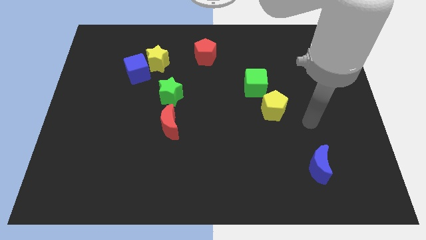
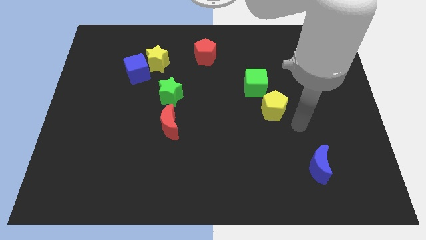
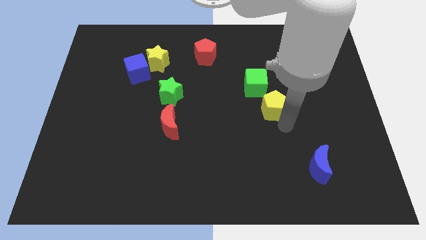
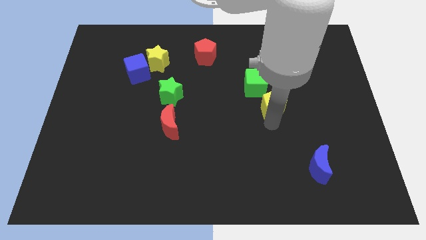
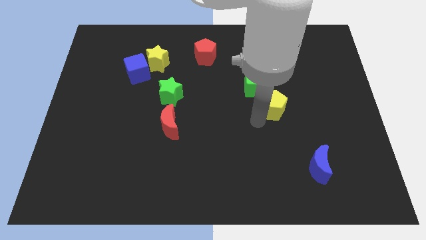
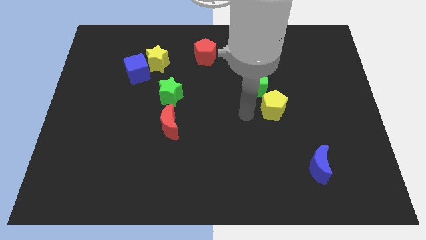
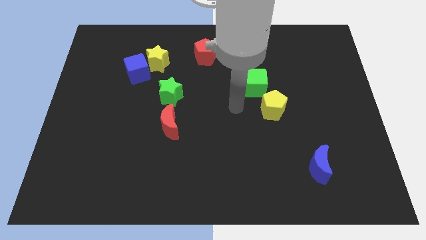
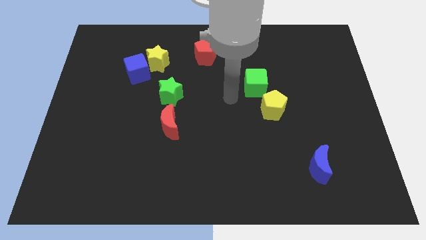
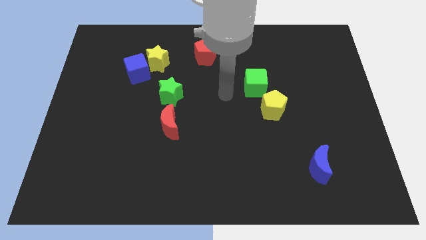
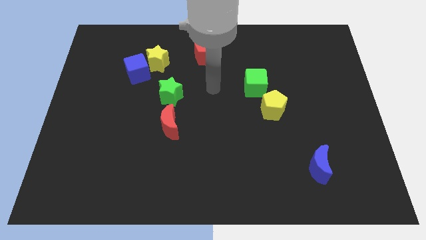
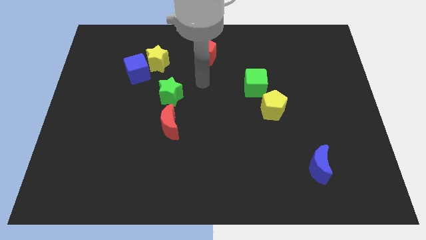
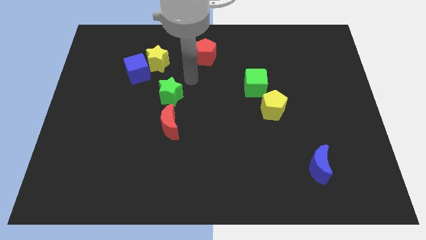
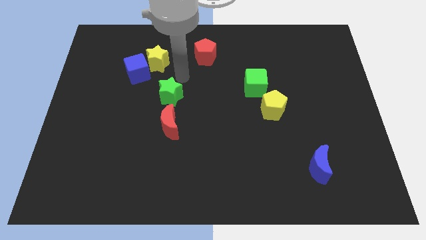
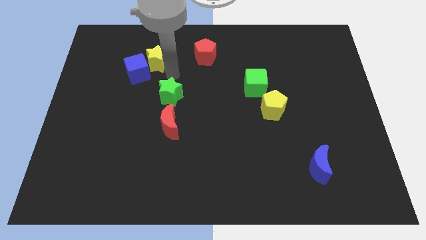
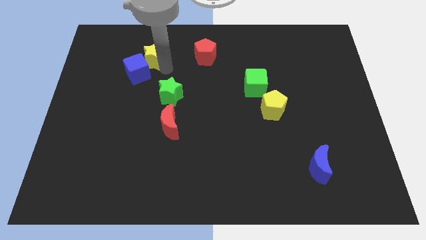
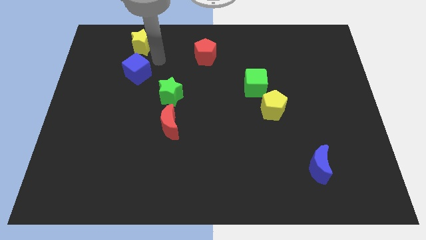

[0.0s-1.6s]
move the blue cube away from the yellow star

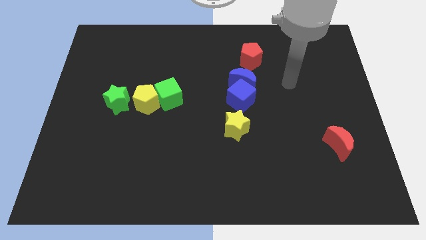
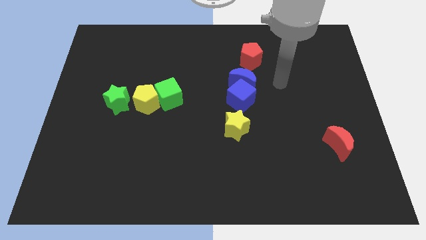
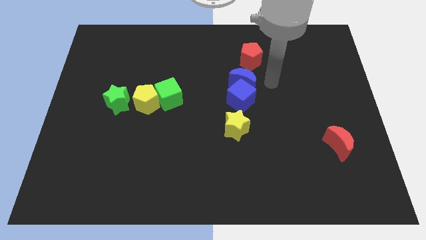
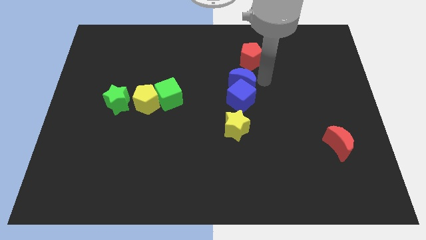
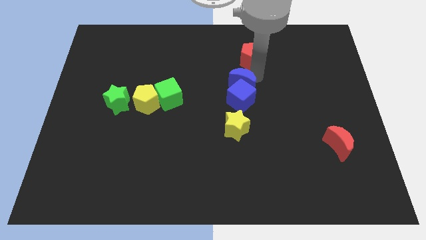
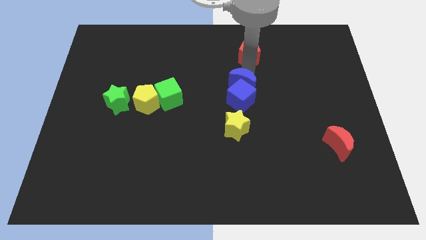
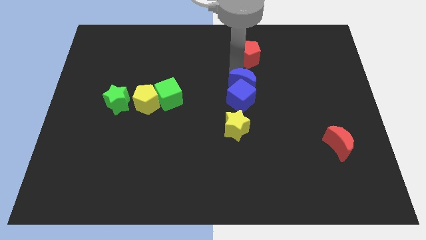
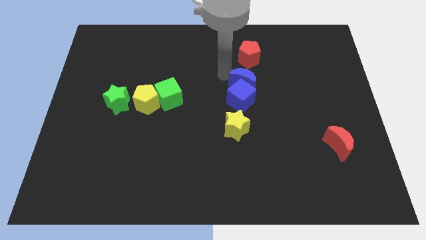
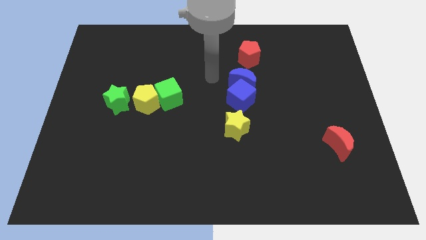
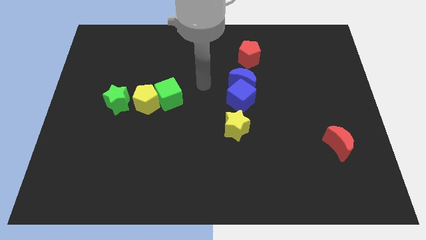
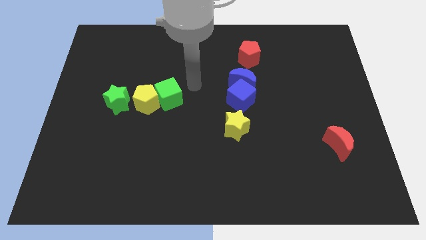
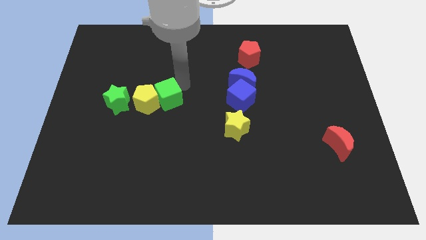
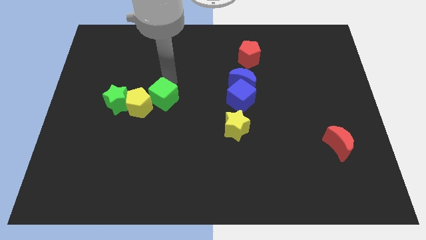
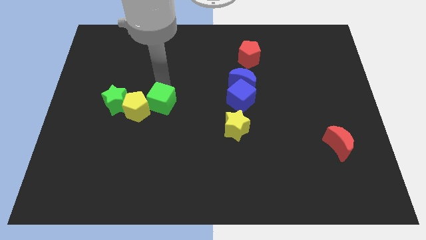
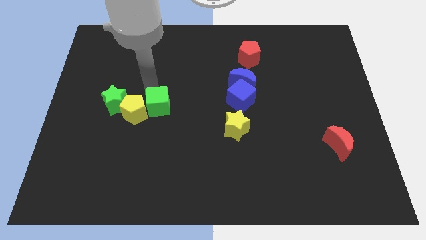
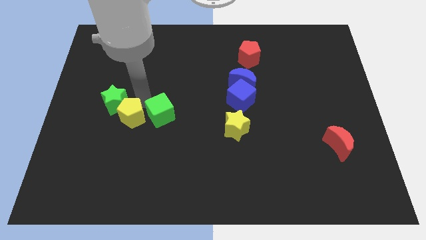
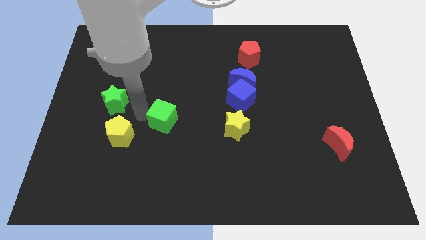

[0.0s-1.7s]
pull the green cube apart from the yellow pentagon

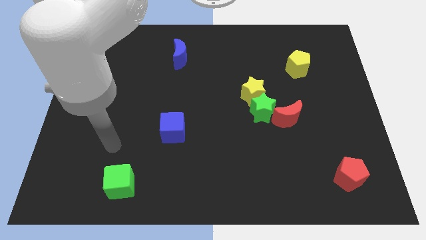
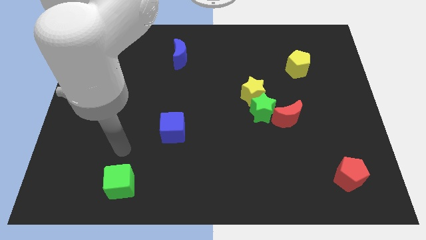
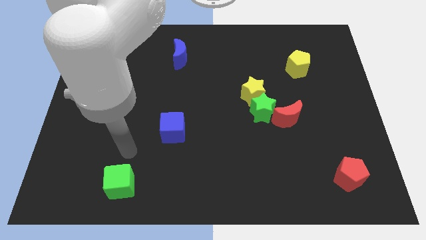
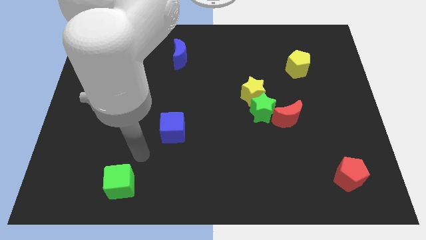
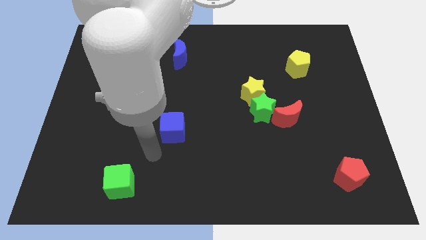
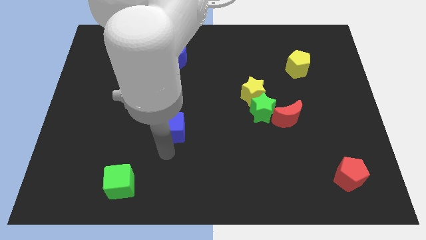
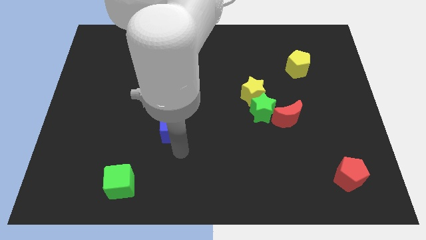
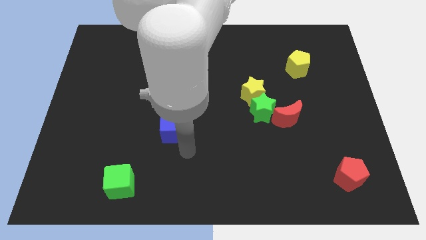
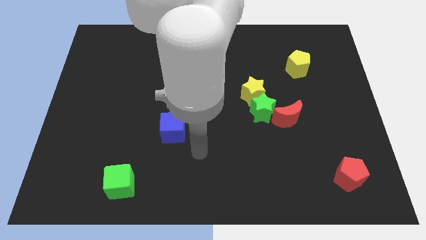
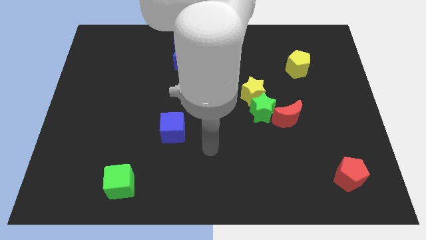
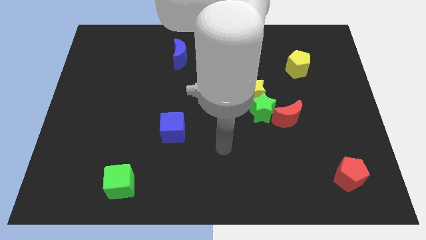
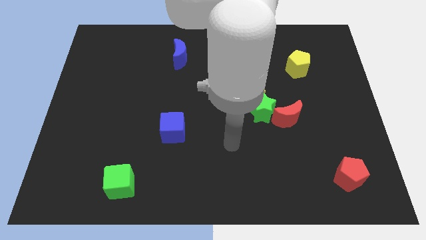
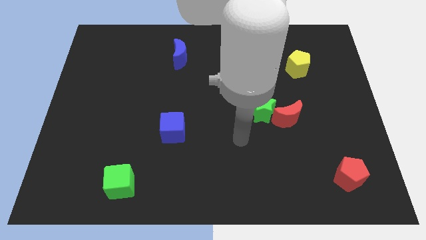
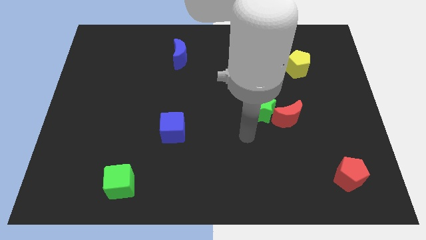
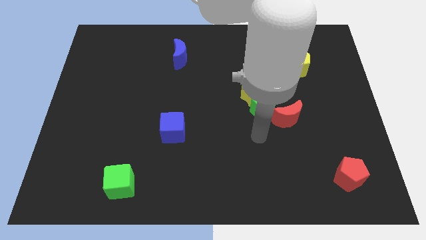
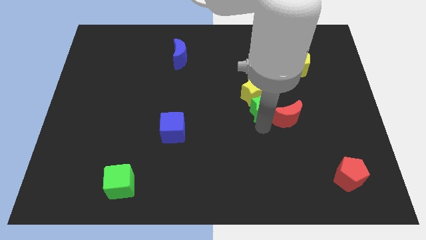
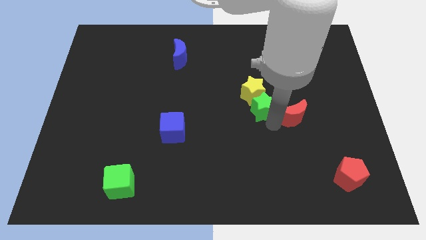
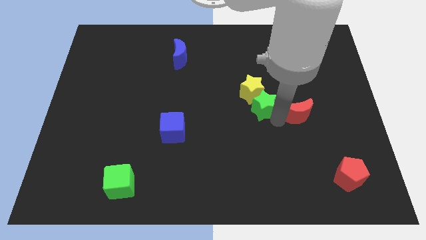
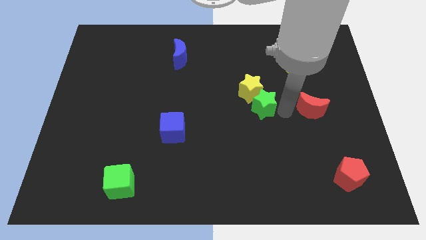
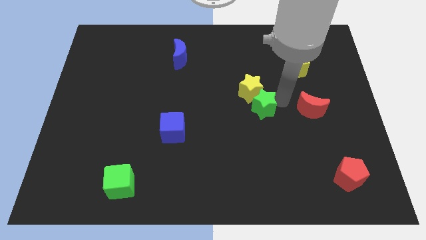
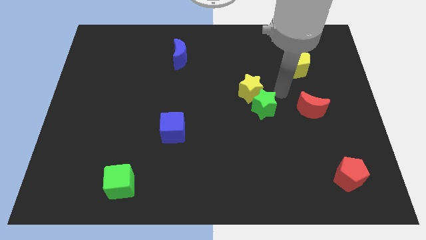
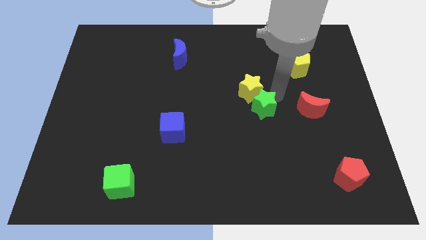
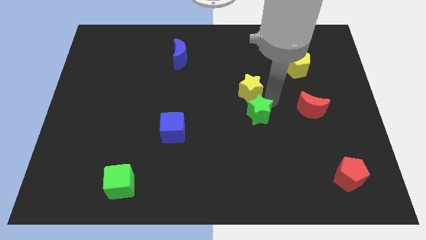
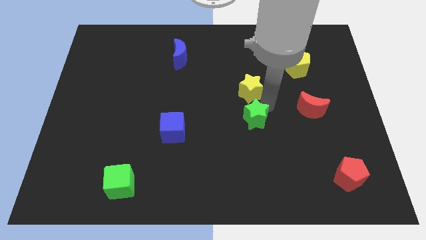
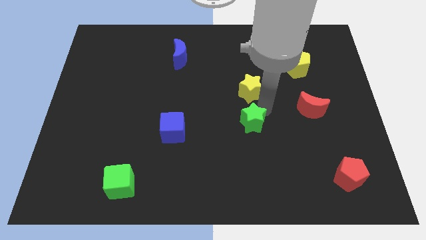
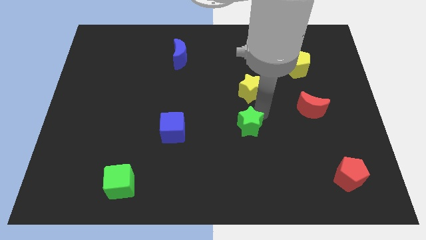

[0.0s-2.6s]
pull the green star apart from the yellow star and red moon

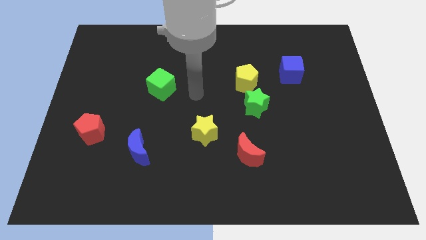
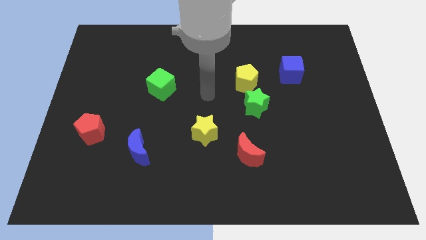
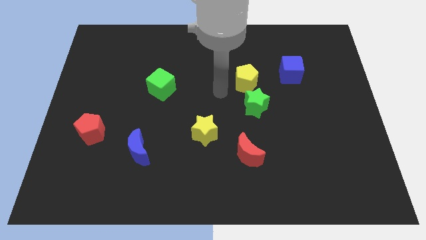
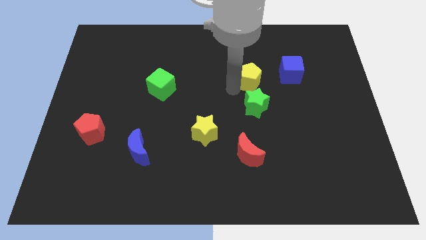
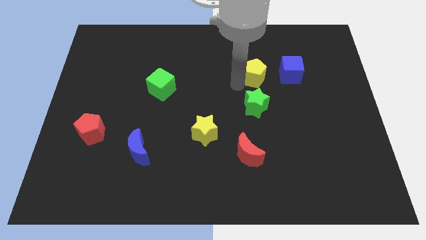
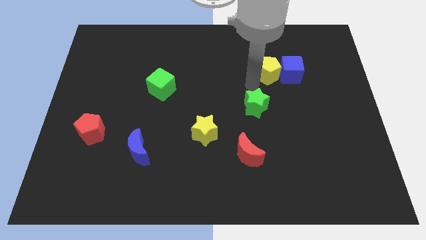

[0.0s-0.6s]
pull the green star apart from the yellow pentagon

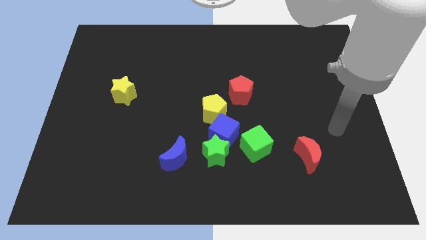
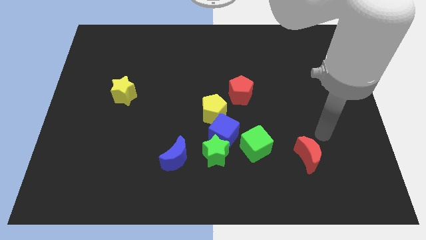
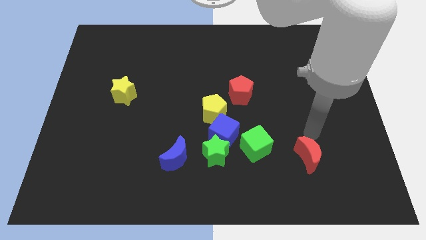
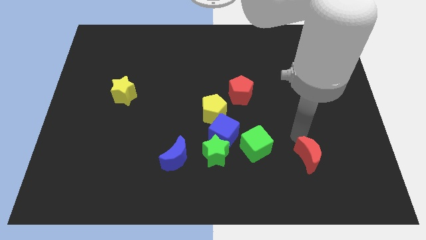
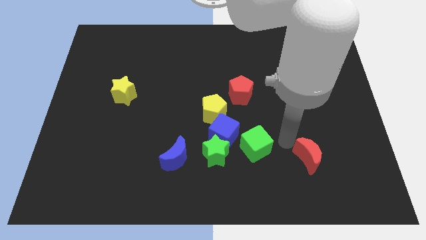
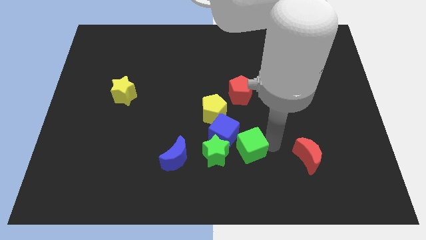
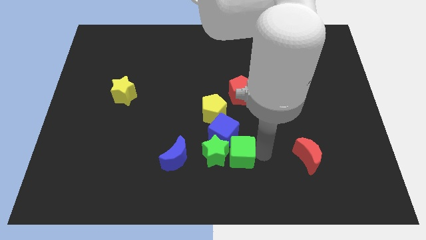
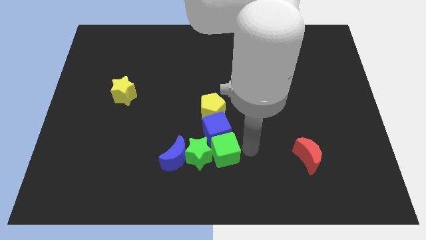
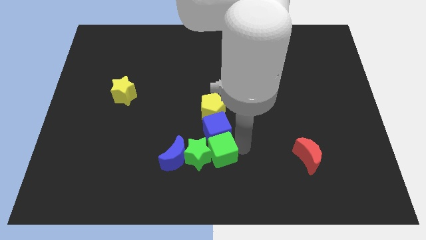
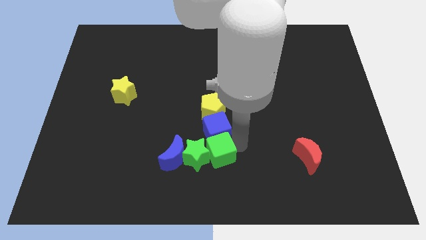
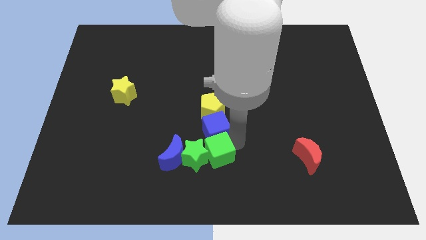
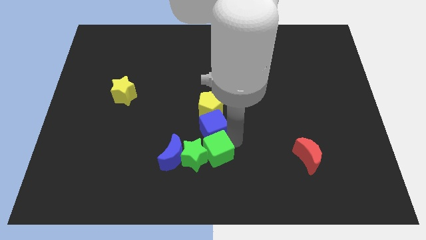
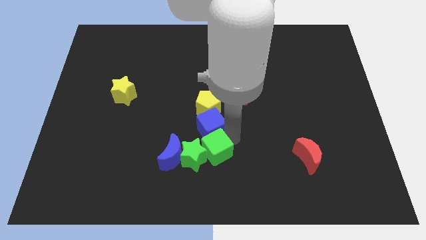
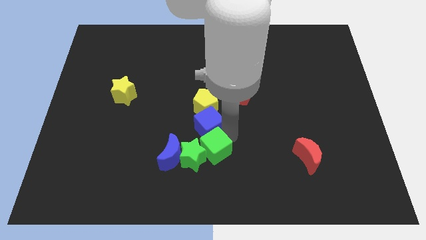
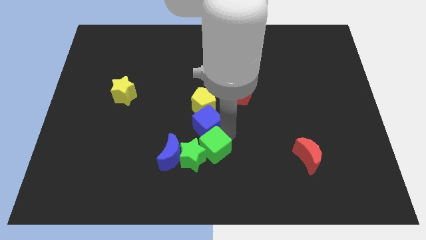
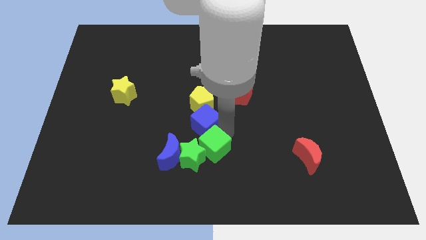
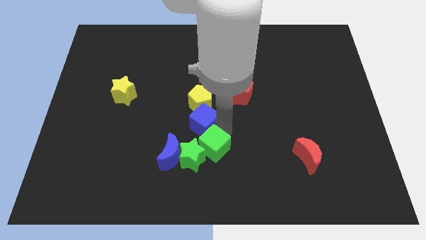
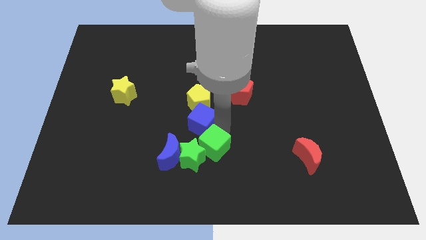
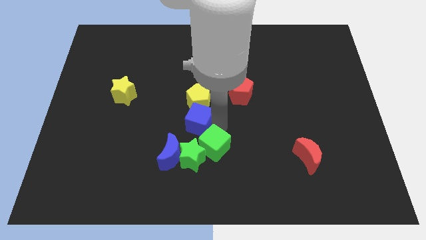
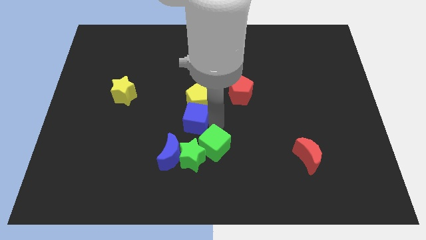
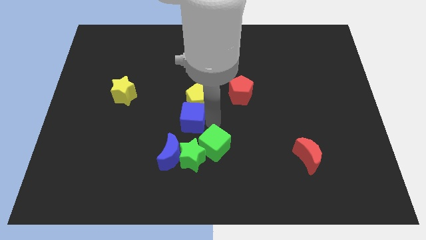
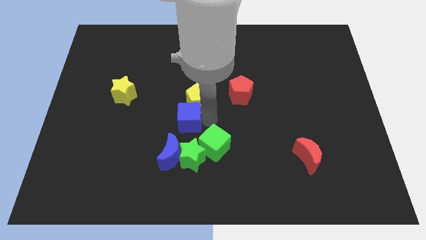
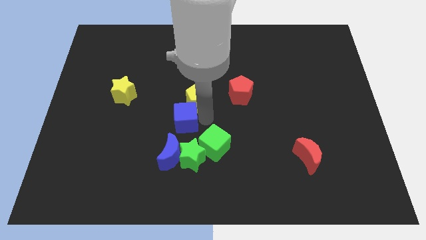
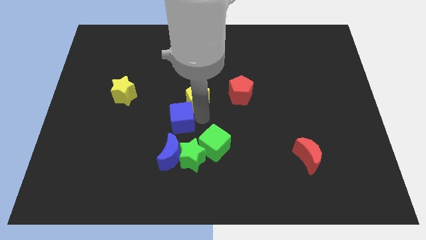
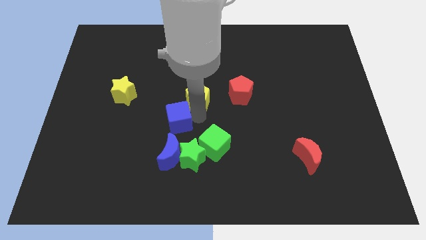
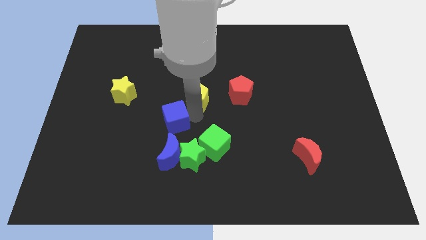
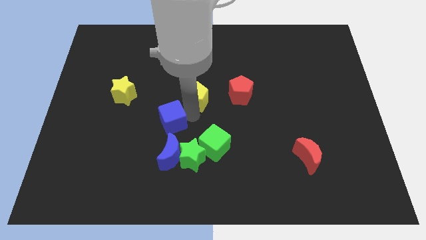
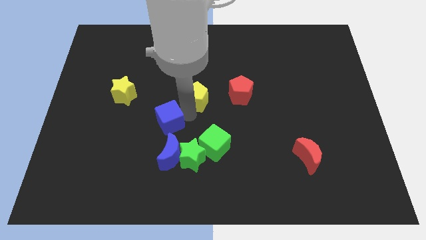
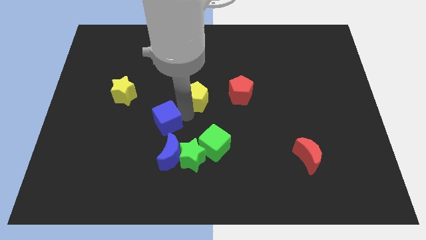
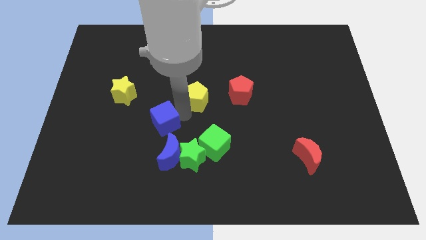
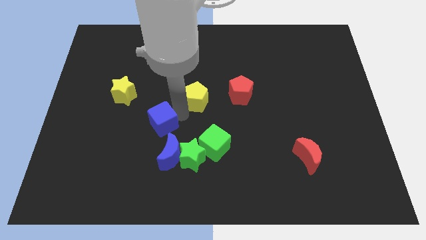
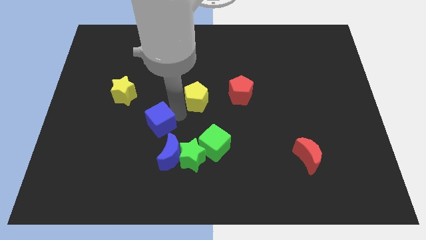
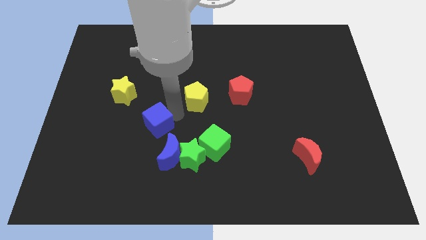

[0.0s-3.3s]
separate the blue cube from the clump
